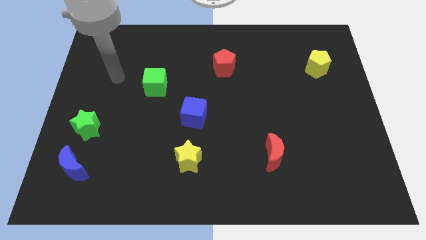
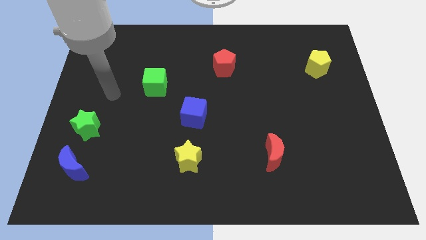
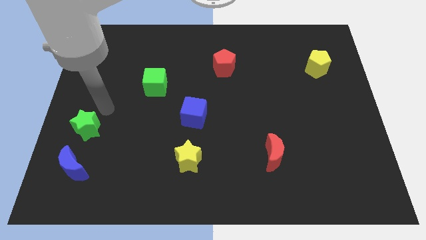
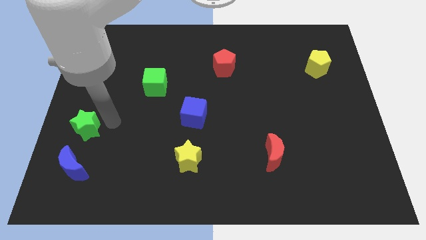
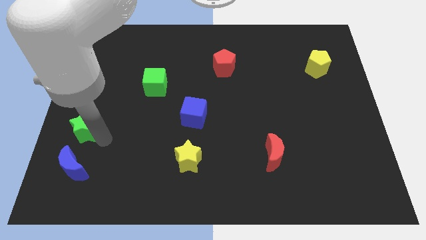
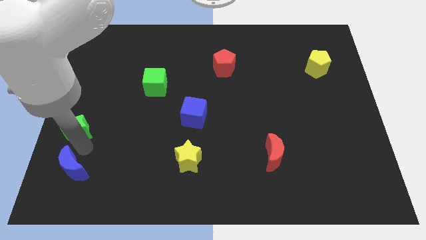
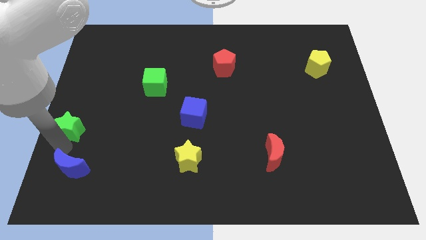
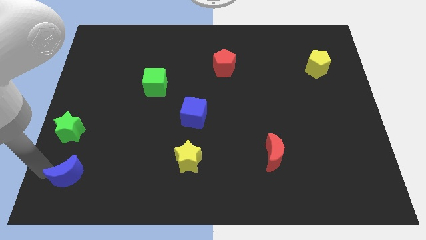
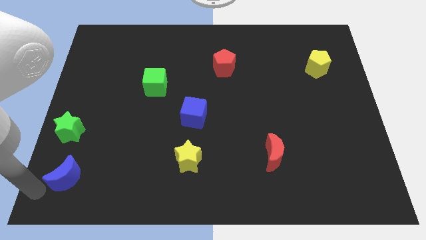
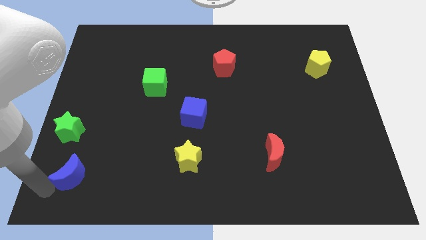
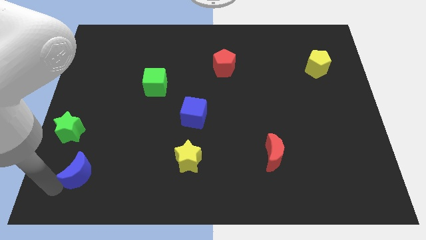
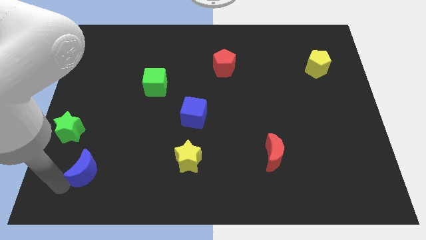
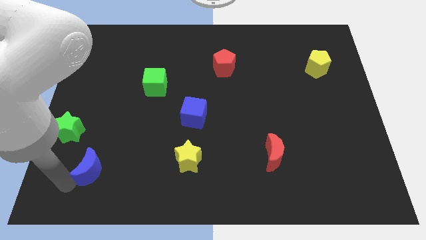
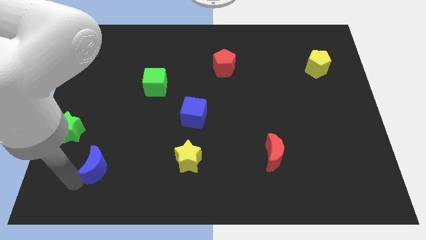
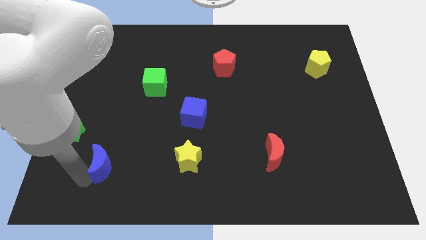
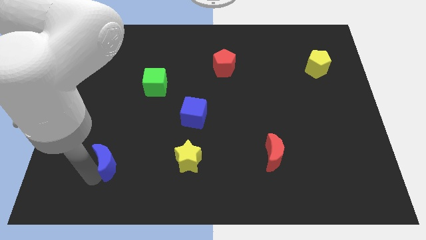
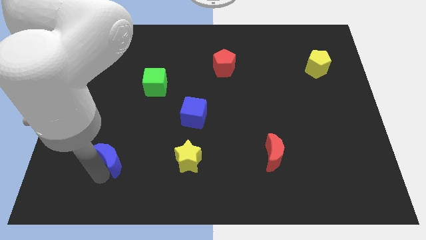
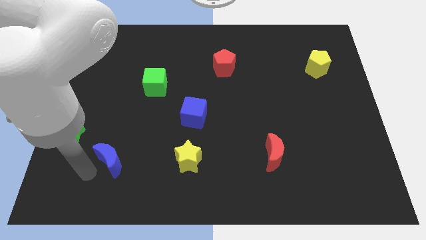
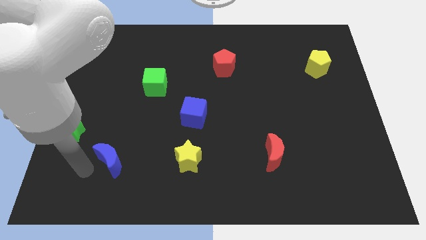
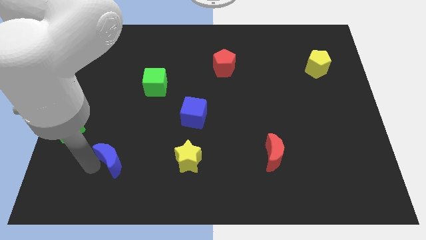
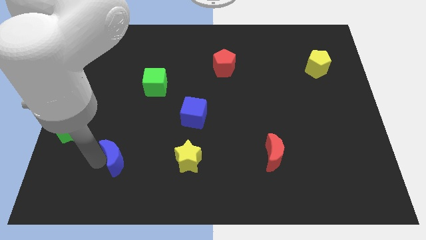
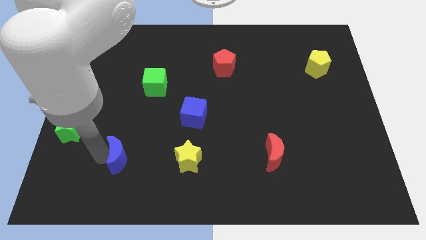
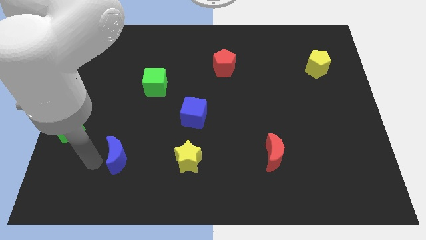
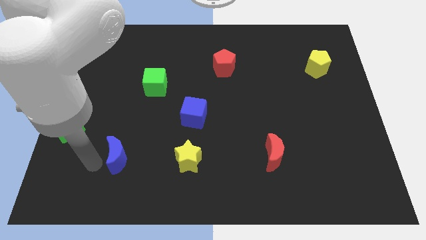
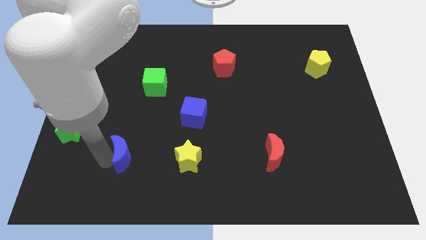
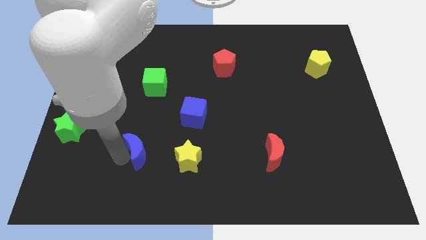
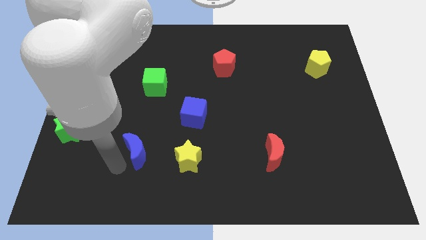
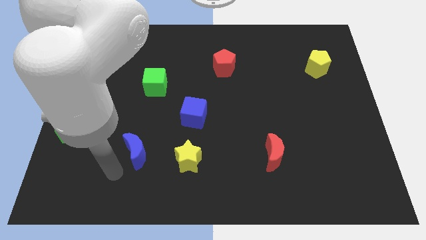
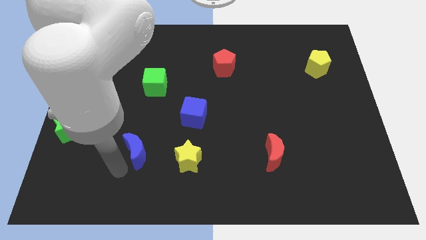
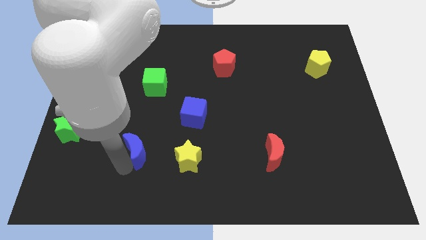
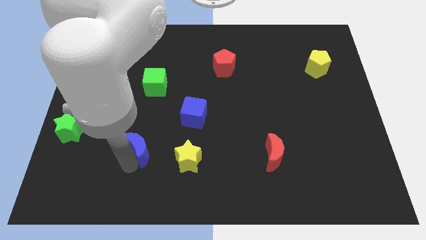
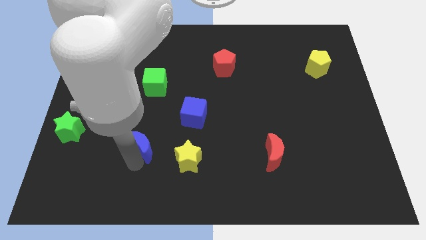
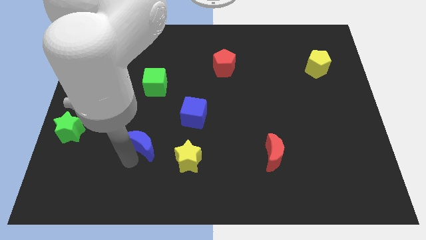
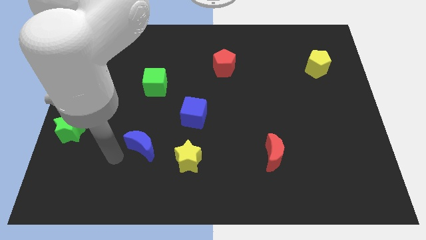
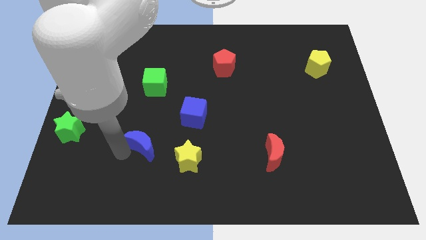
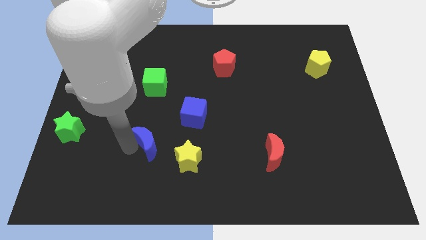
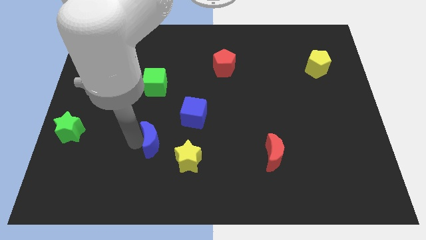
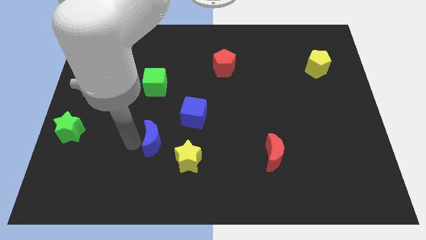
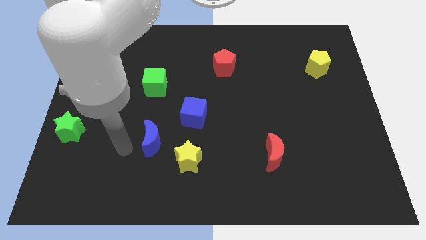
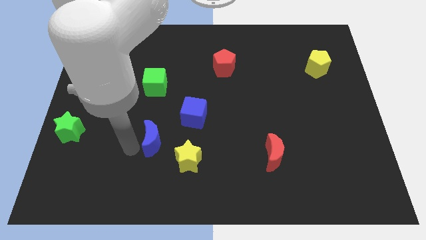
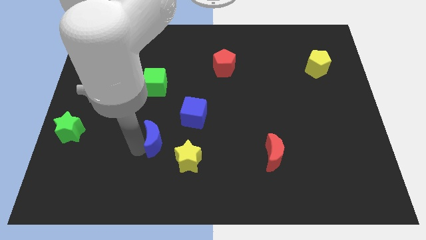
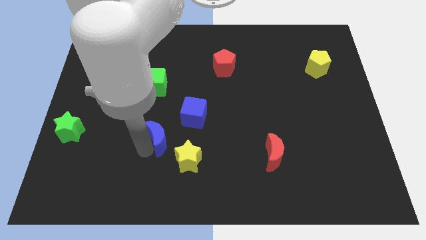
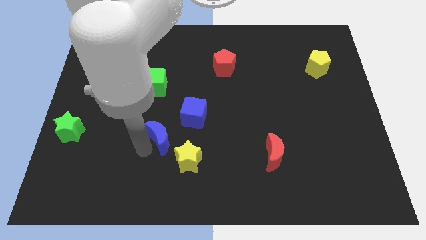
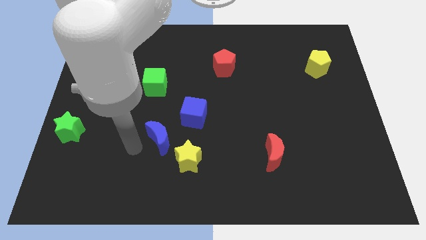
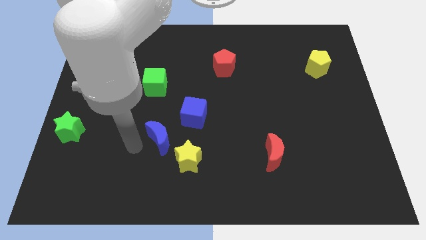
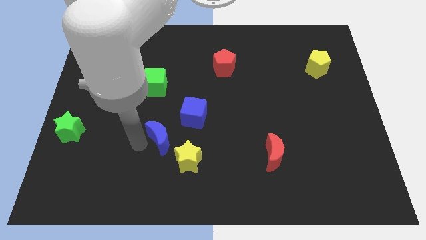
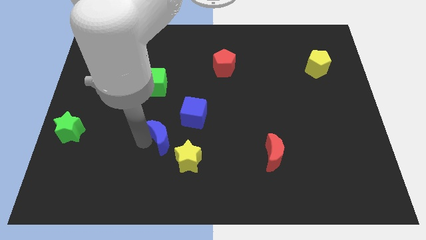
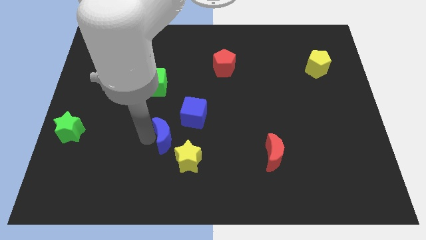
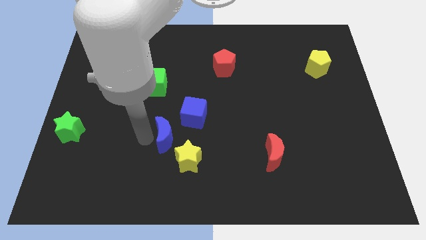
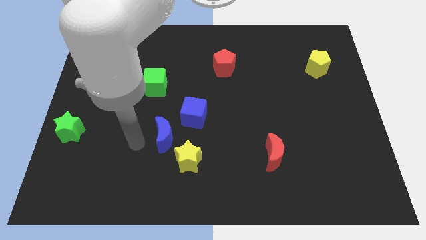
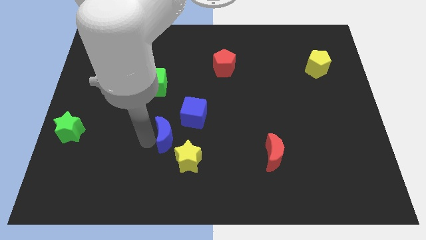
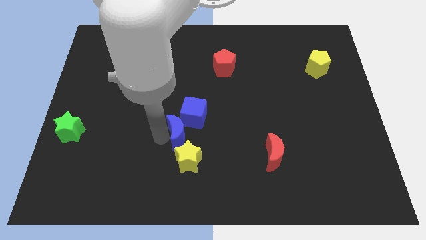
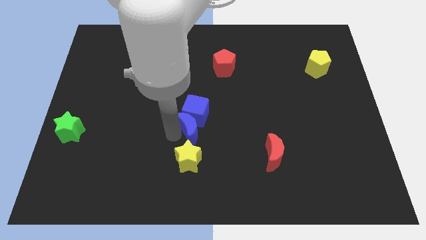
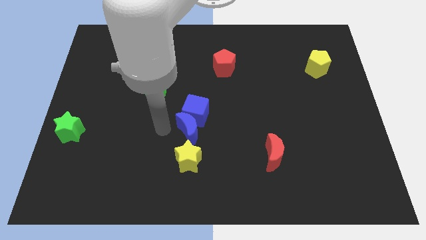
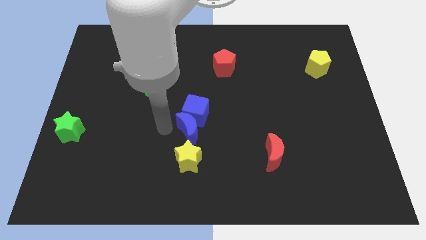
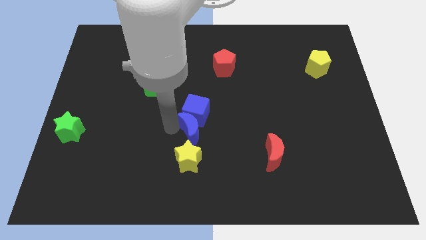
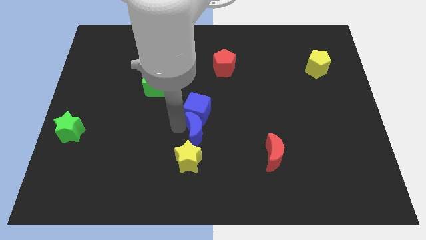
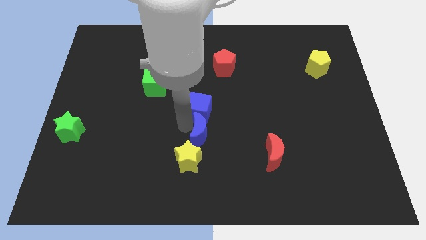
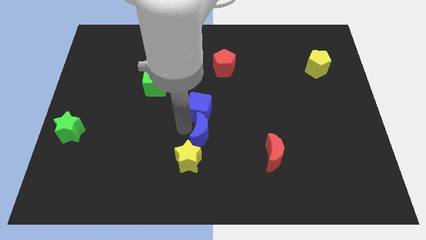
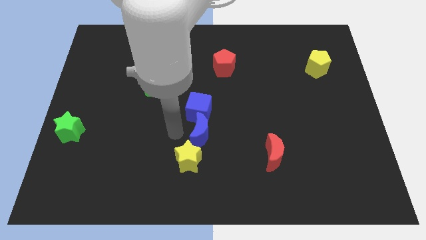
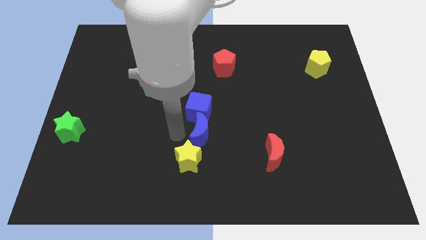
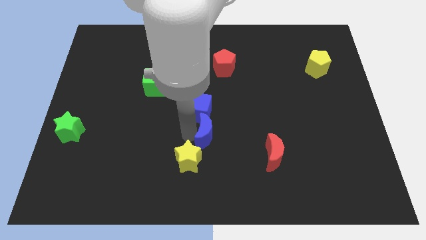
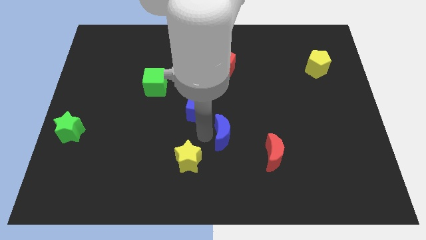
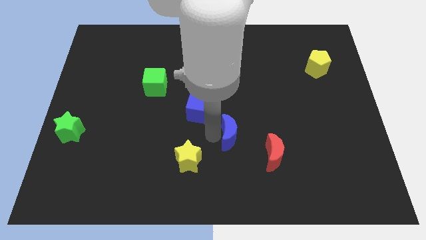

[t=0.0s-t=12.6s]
slide the blue moon diagonally up and to the left of the red moon
